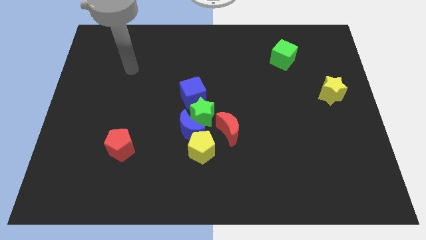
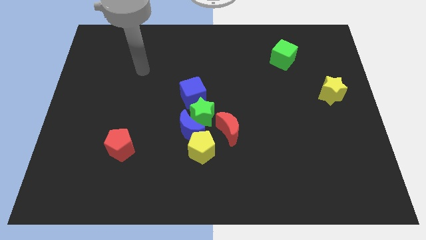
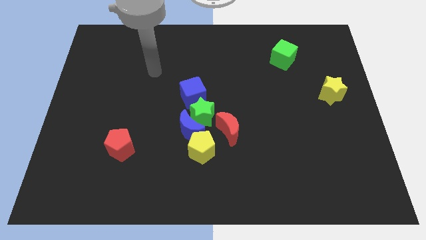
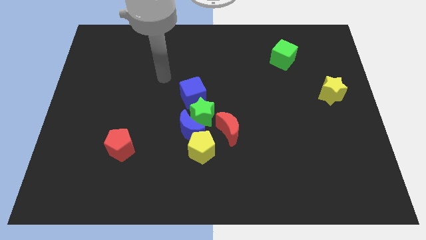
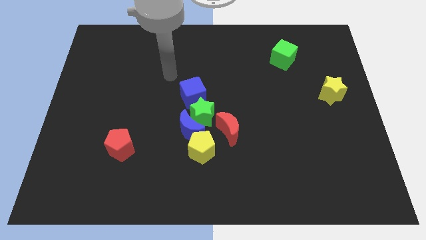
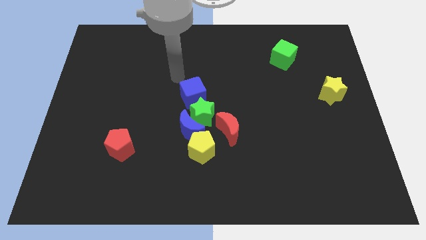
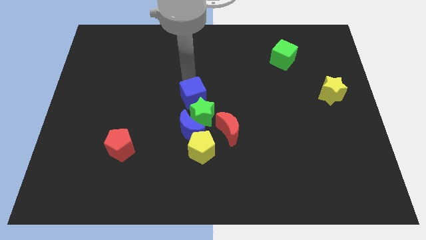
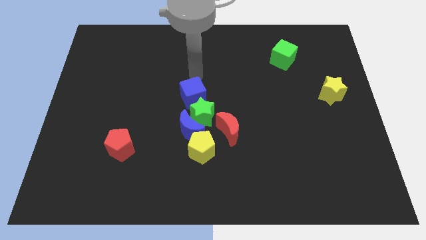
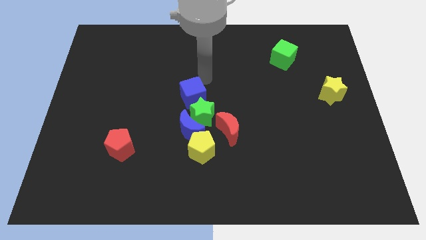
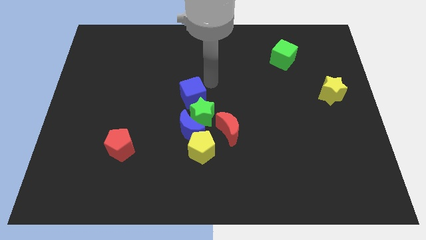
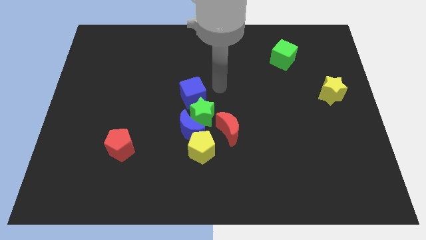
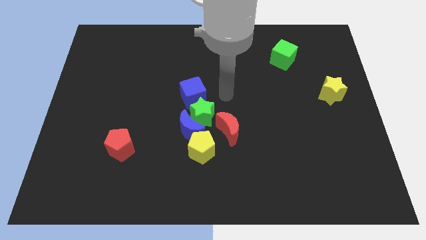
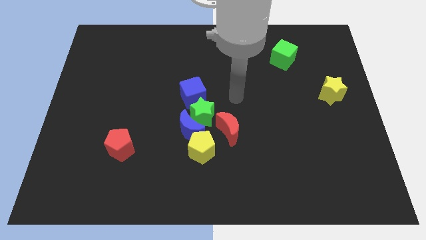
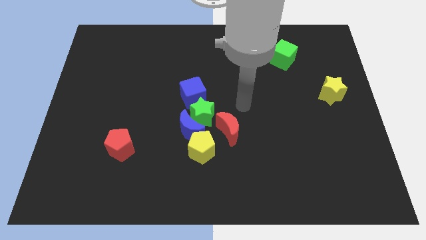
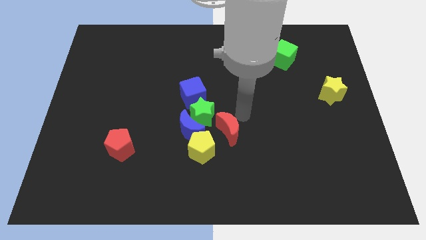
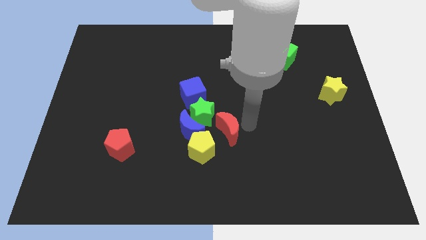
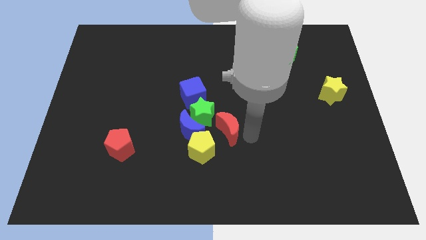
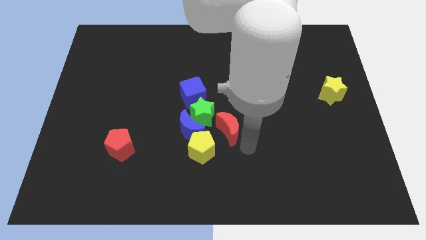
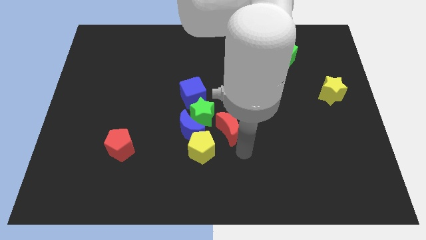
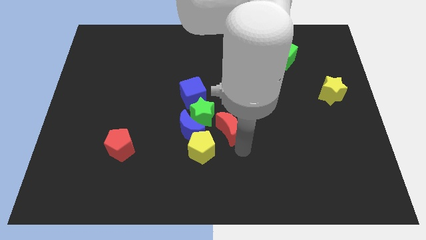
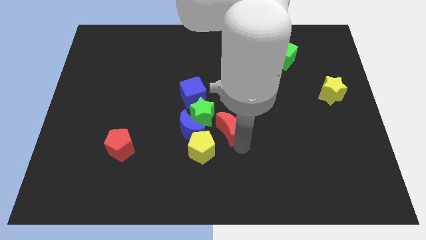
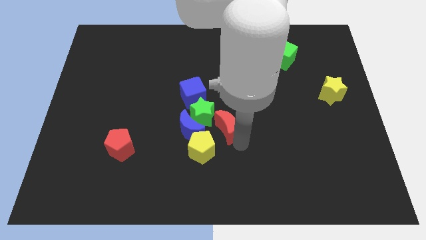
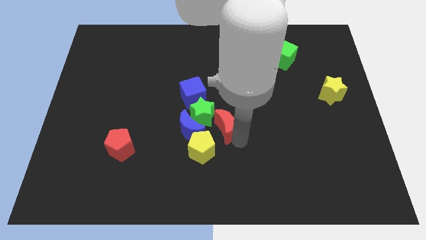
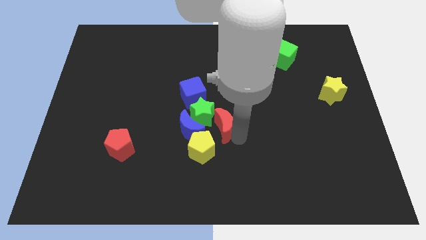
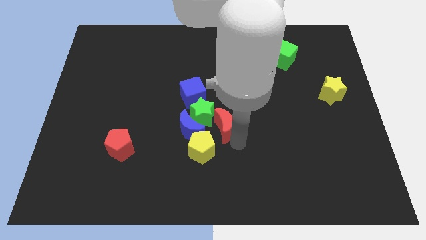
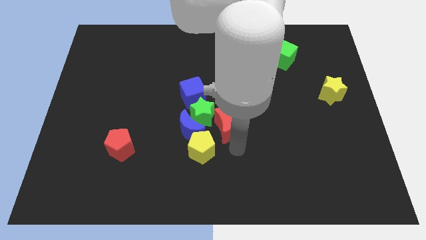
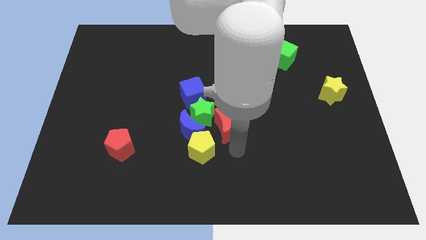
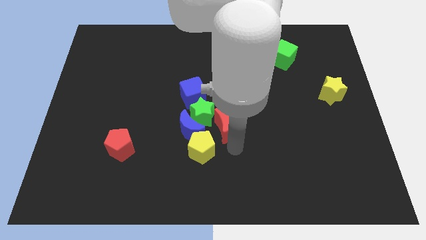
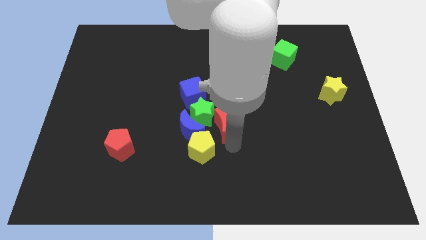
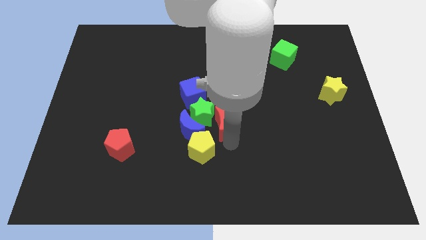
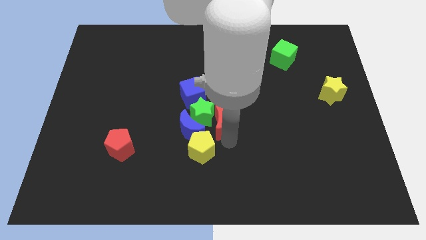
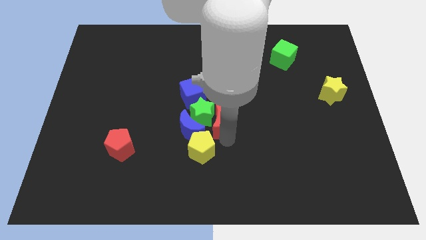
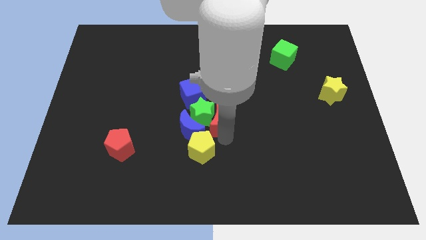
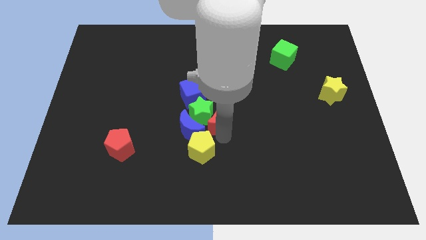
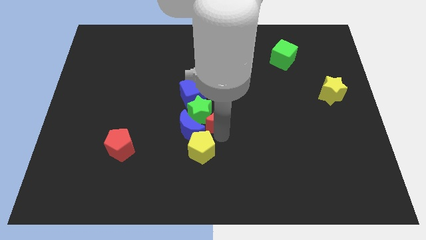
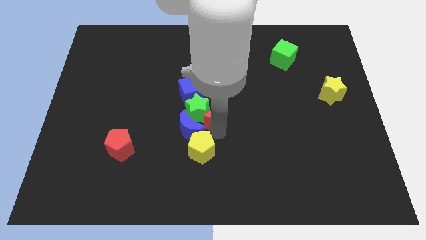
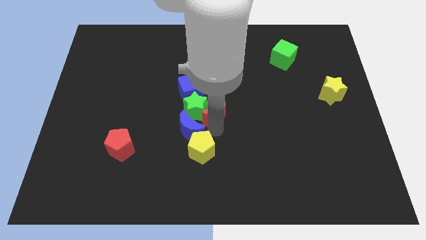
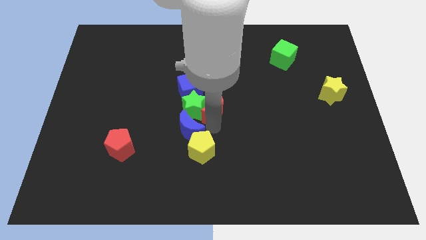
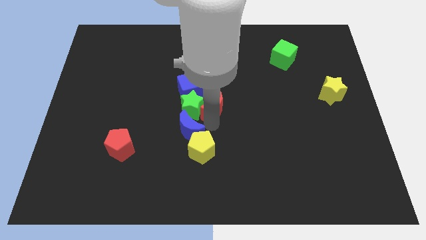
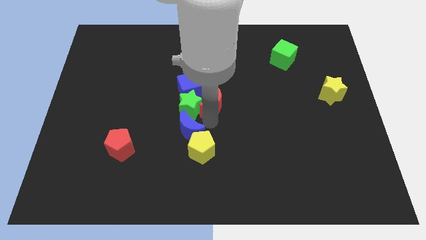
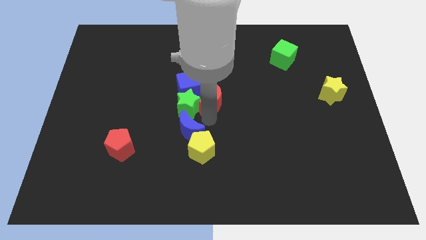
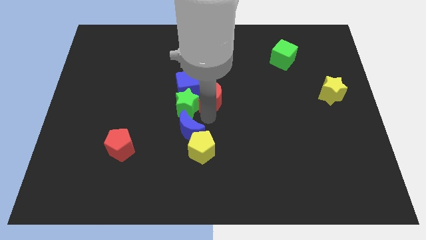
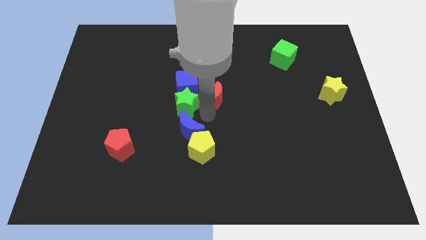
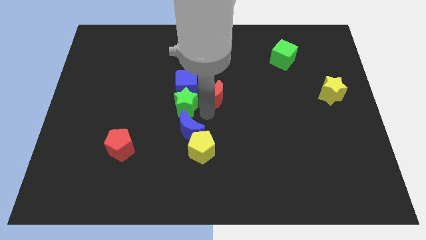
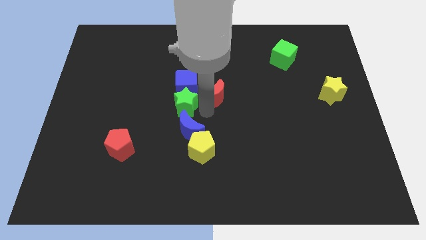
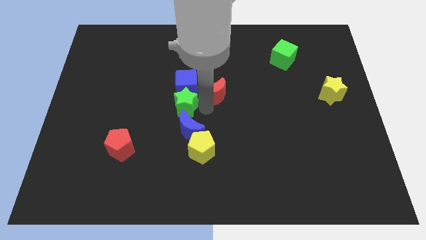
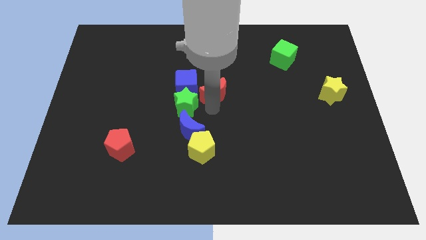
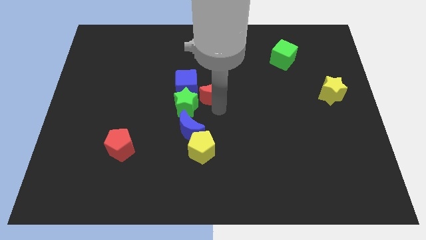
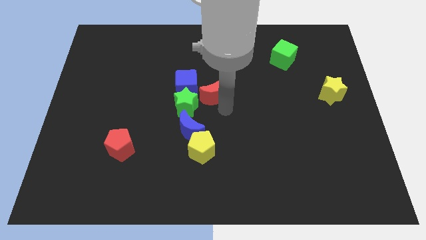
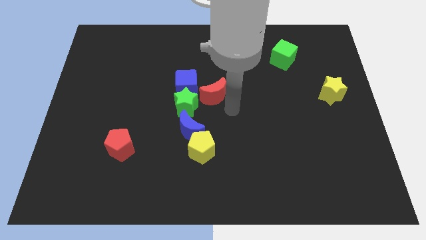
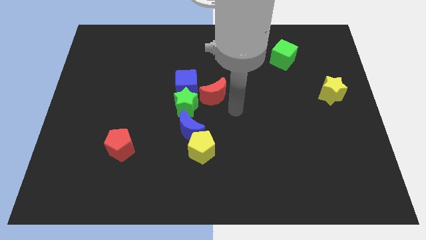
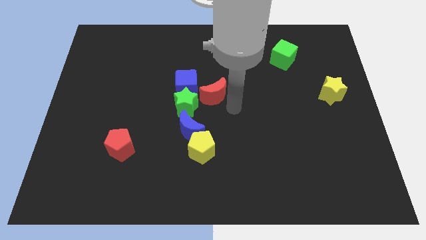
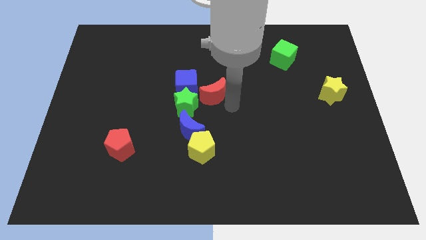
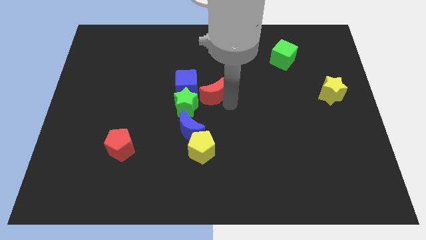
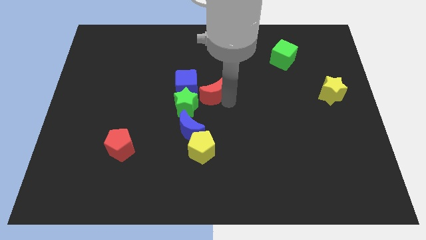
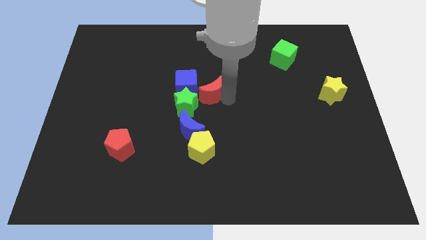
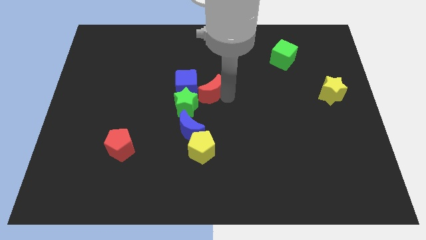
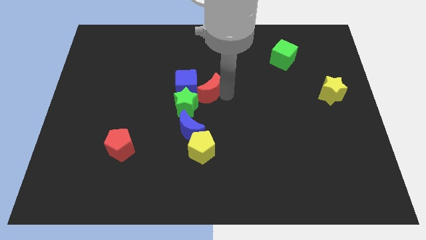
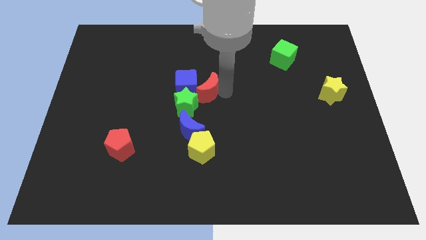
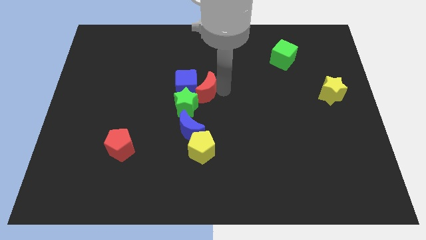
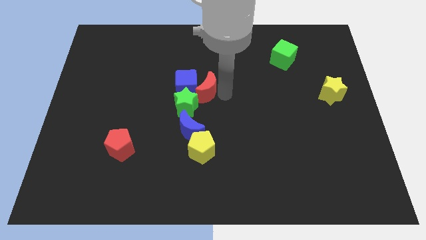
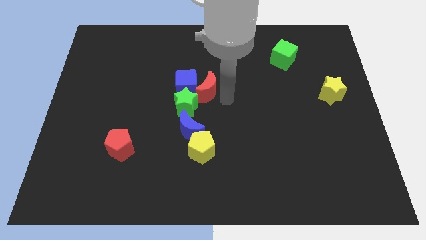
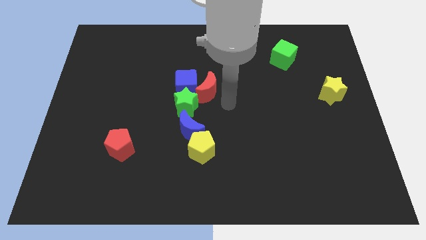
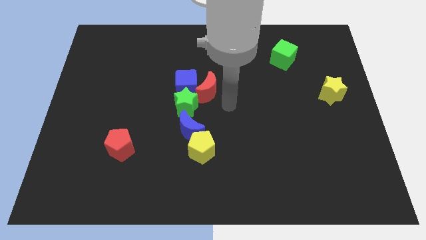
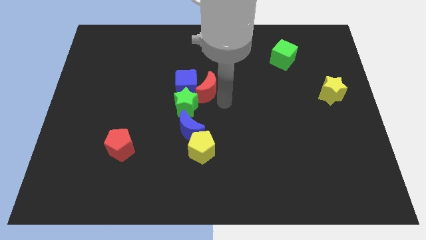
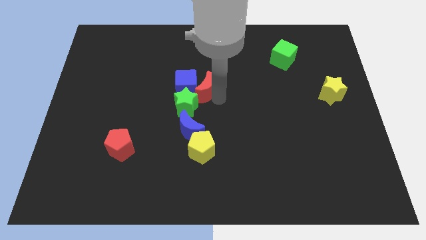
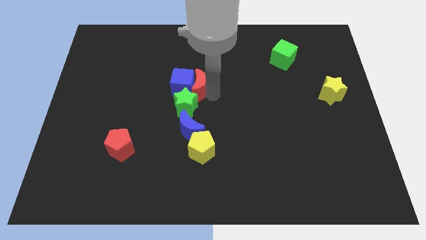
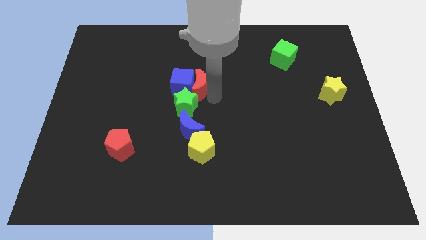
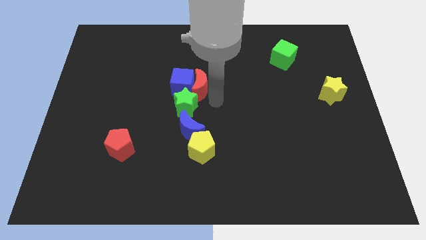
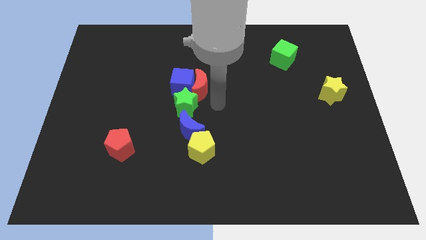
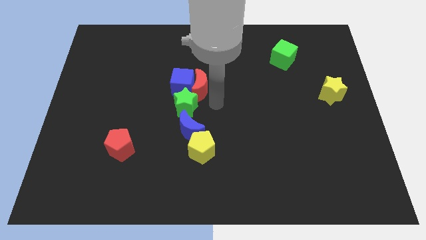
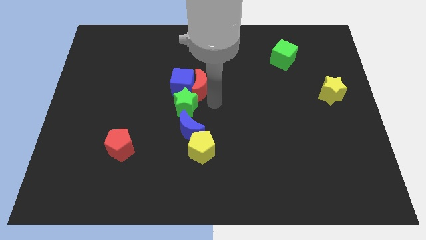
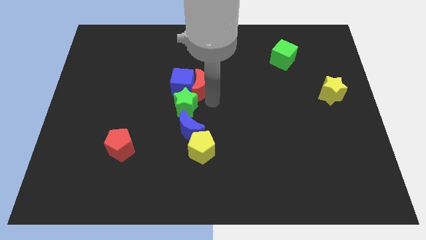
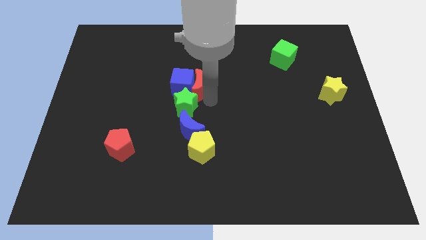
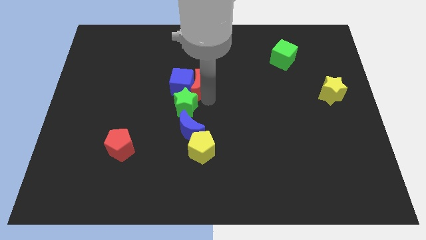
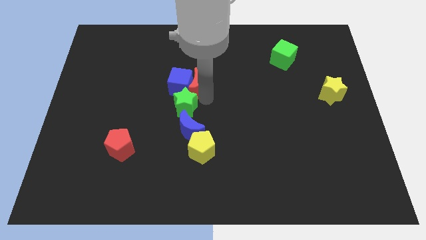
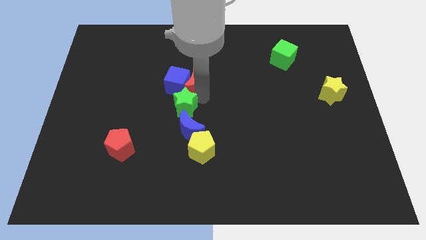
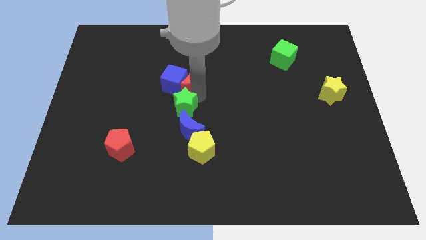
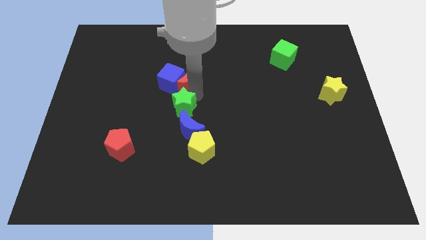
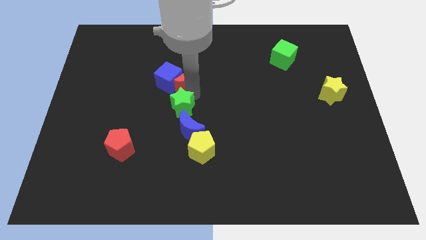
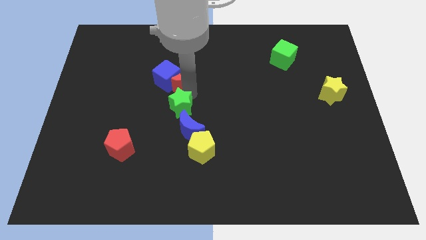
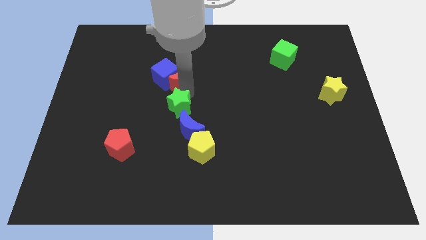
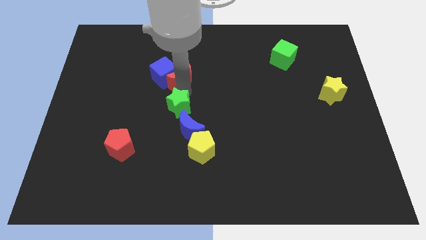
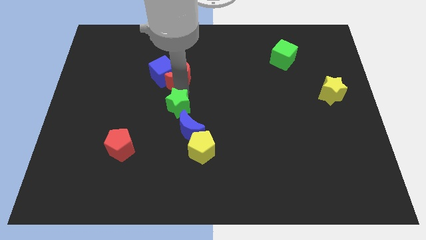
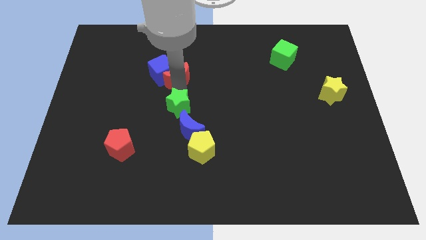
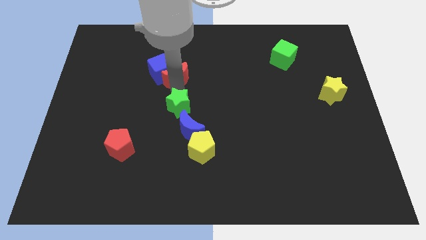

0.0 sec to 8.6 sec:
slide the red moon diagonally up and to the left
